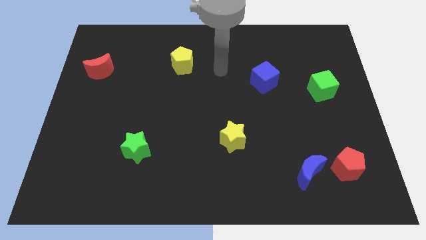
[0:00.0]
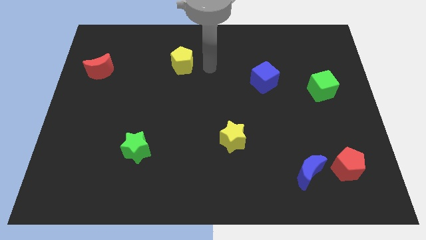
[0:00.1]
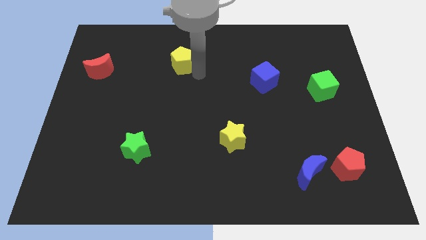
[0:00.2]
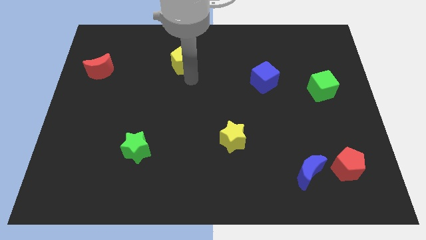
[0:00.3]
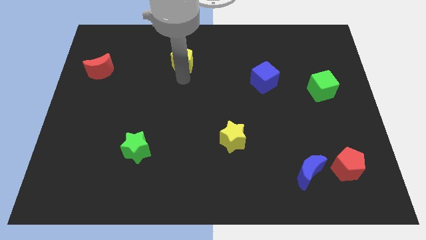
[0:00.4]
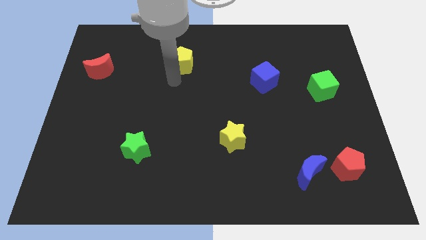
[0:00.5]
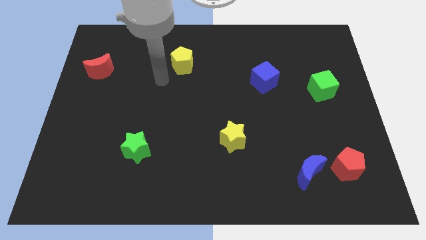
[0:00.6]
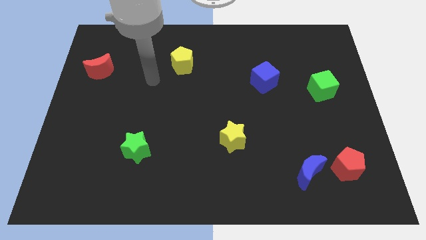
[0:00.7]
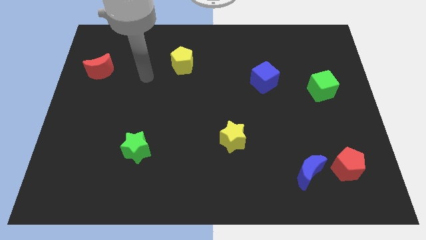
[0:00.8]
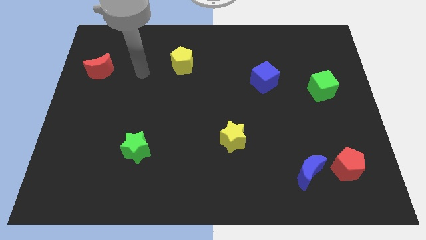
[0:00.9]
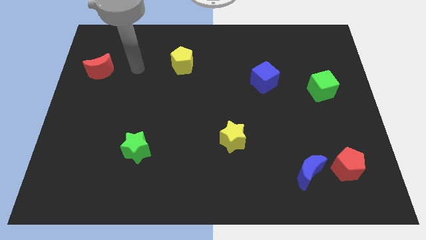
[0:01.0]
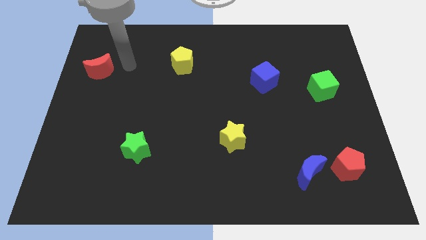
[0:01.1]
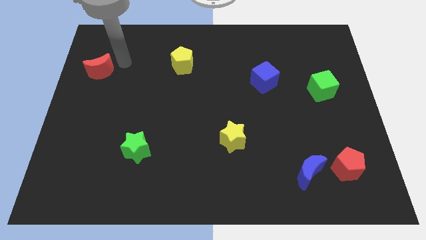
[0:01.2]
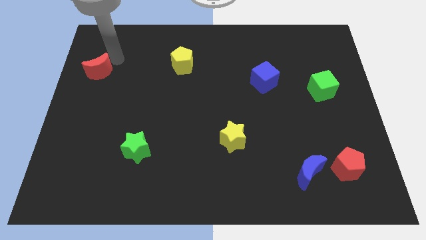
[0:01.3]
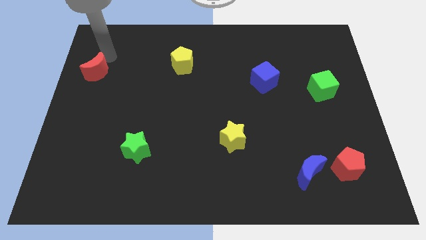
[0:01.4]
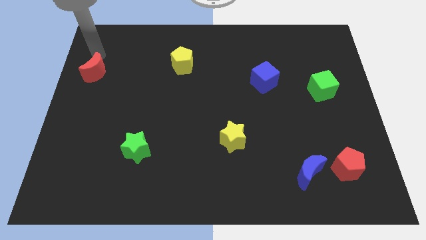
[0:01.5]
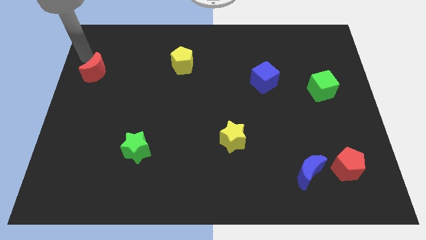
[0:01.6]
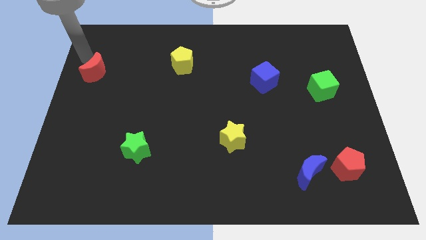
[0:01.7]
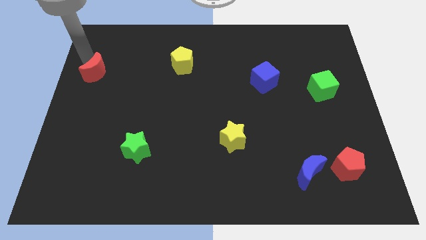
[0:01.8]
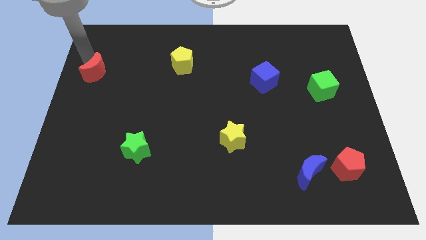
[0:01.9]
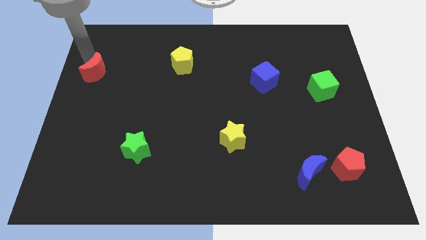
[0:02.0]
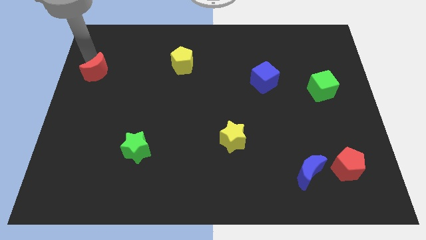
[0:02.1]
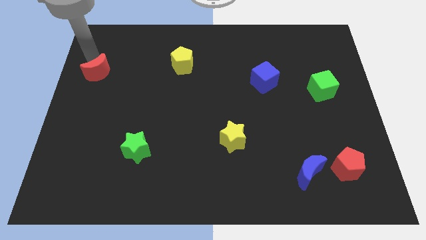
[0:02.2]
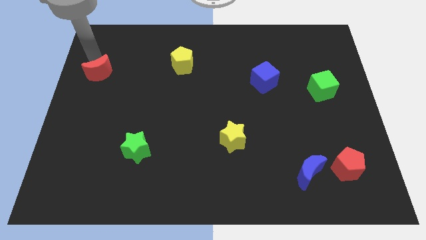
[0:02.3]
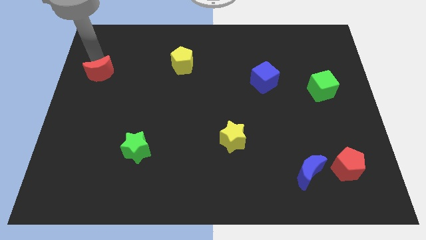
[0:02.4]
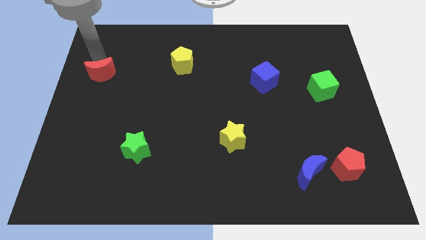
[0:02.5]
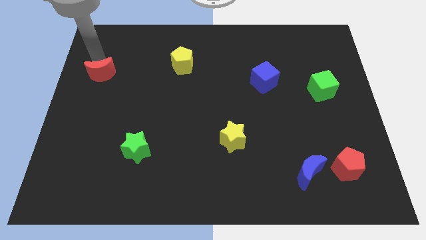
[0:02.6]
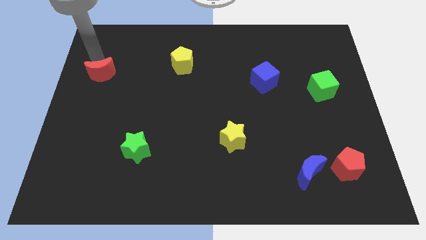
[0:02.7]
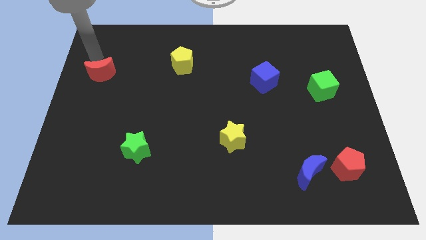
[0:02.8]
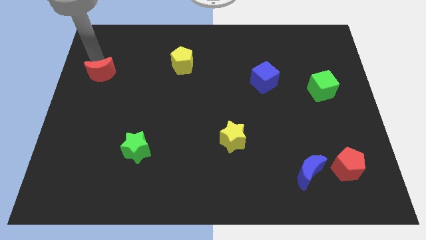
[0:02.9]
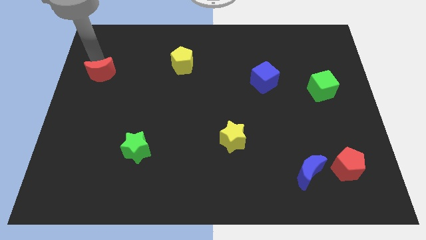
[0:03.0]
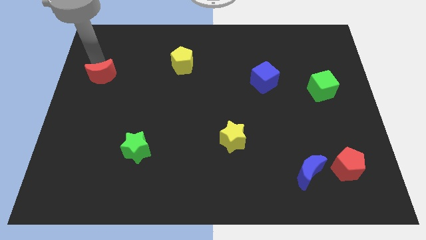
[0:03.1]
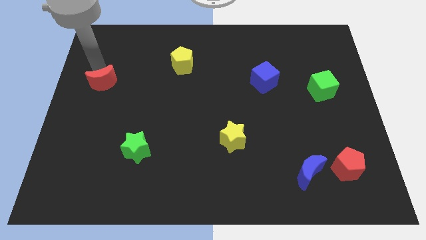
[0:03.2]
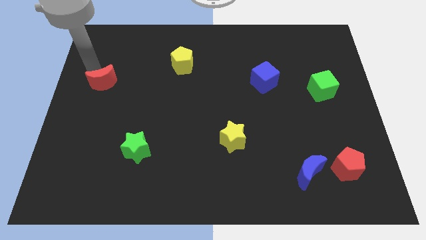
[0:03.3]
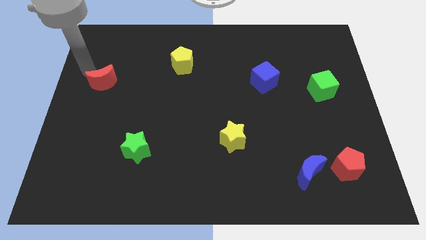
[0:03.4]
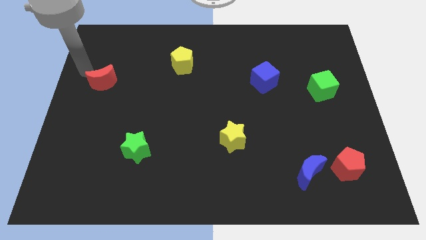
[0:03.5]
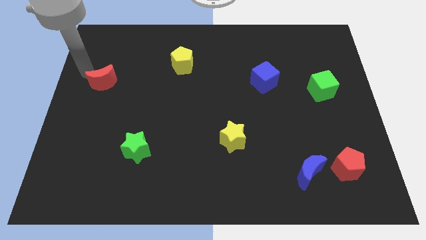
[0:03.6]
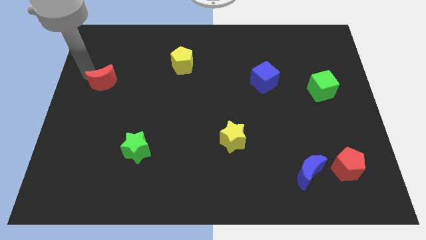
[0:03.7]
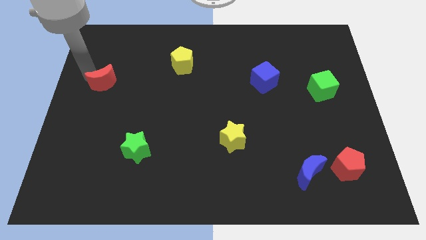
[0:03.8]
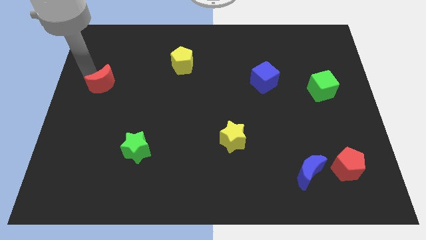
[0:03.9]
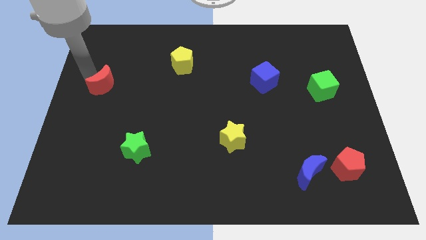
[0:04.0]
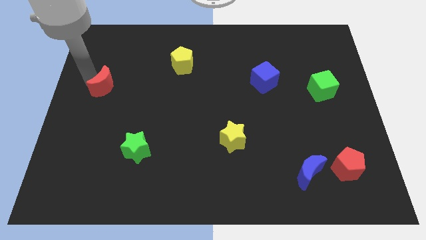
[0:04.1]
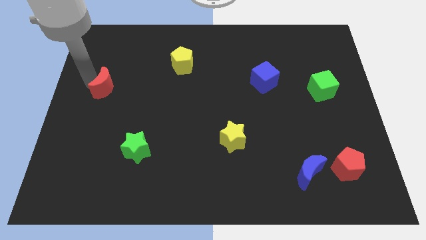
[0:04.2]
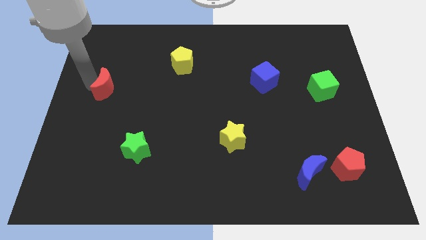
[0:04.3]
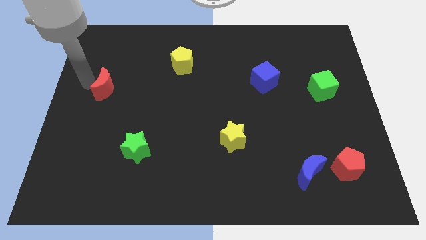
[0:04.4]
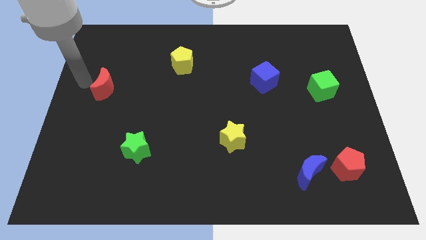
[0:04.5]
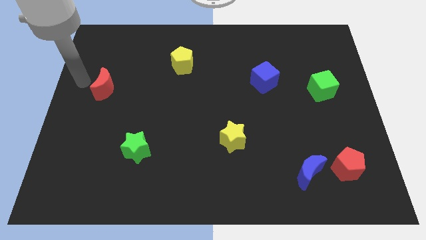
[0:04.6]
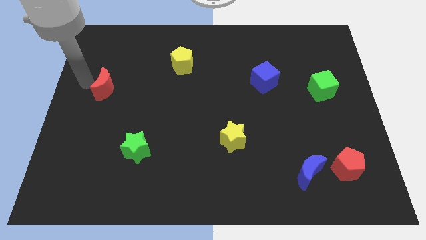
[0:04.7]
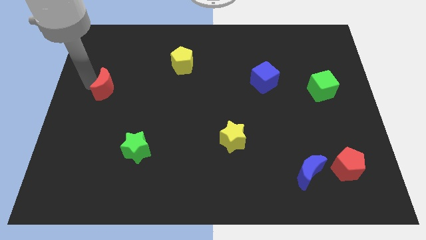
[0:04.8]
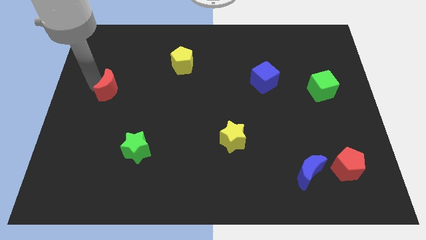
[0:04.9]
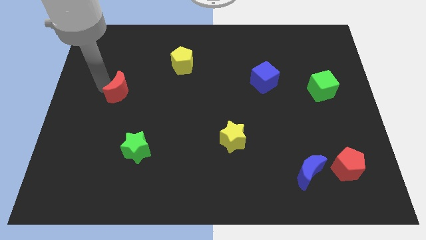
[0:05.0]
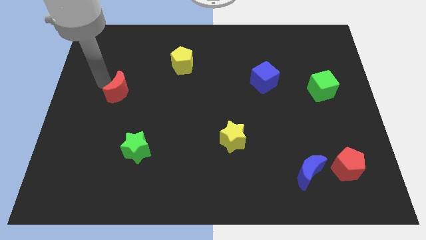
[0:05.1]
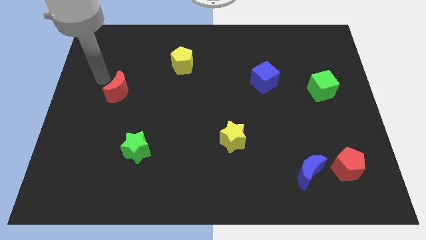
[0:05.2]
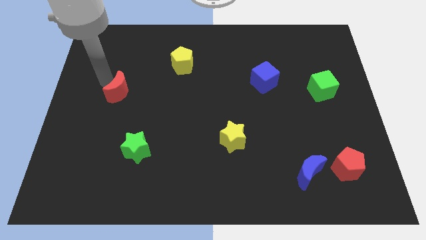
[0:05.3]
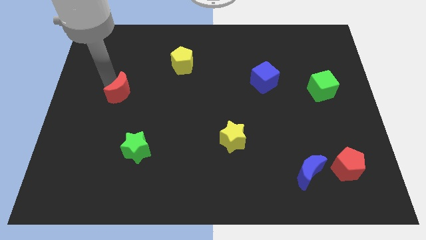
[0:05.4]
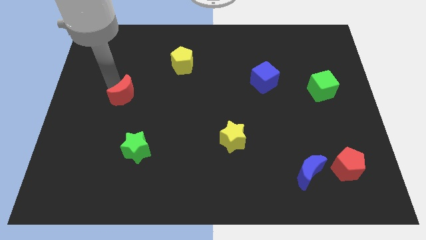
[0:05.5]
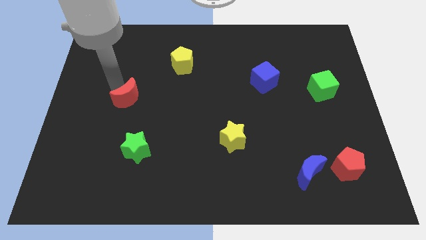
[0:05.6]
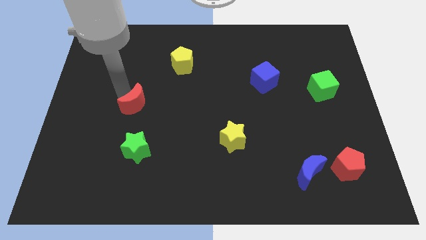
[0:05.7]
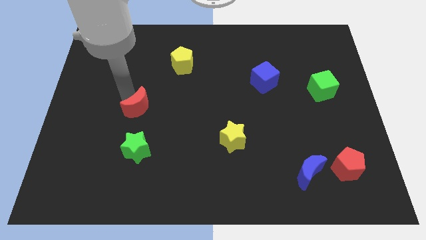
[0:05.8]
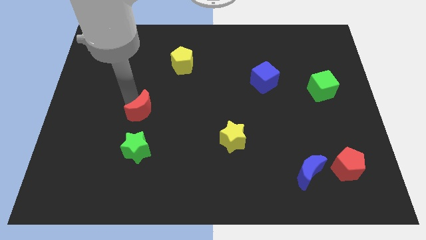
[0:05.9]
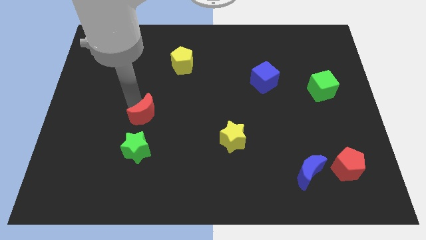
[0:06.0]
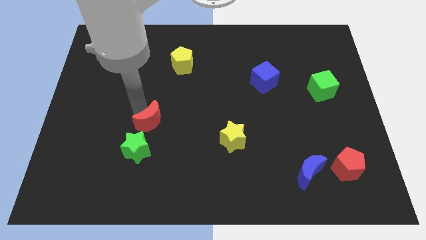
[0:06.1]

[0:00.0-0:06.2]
push the red moon down and right

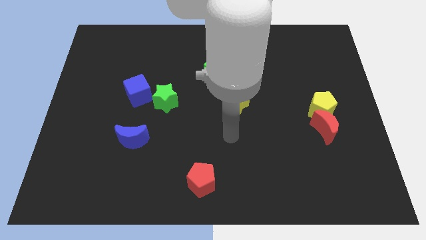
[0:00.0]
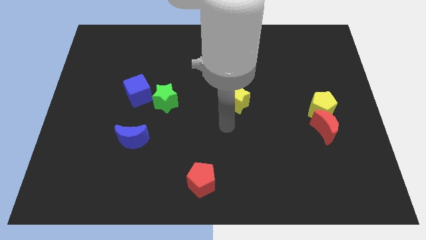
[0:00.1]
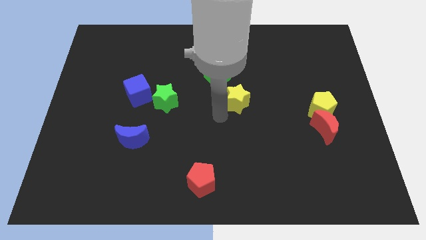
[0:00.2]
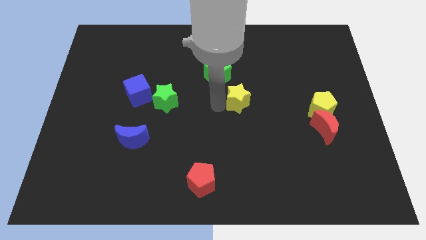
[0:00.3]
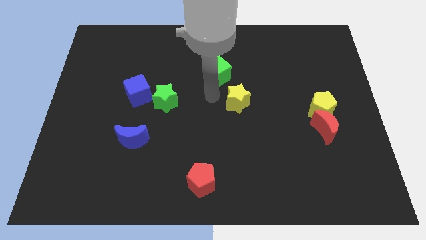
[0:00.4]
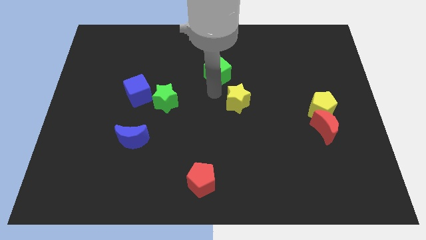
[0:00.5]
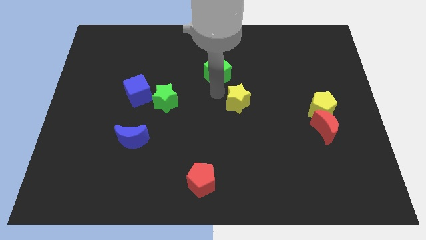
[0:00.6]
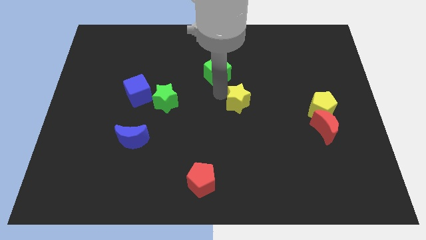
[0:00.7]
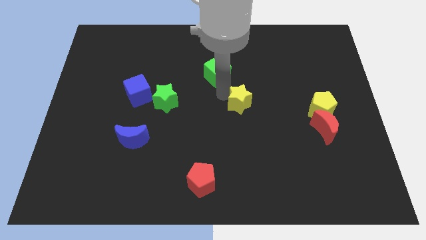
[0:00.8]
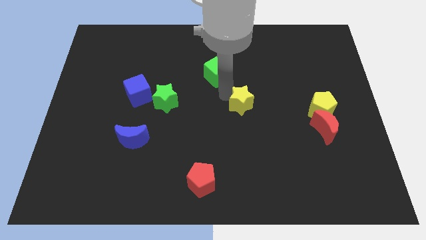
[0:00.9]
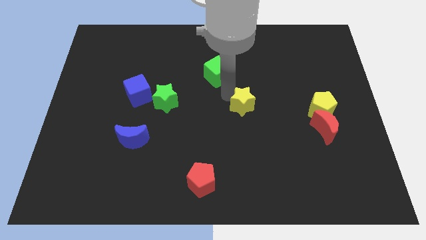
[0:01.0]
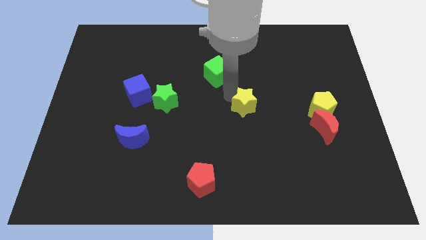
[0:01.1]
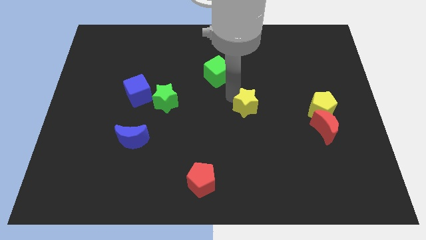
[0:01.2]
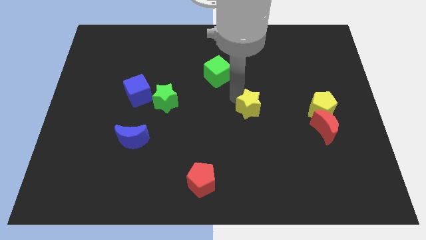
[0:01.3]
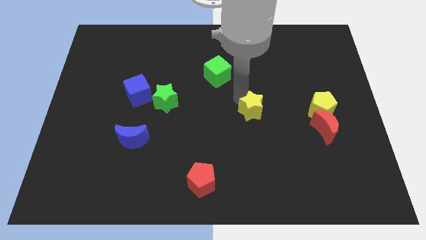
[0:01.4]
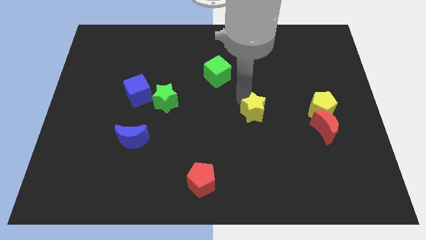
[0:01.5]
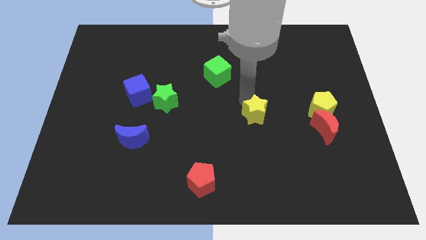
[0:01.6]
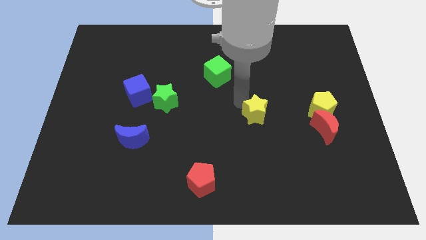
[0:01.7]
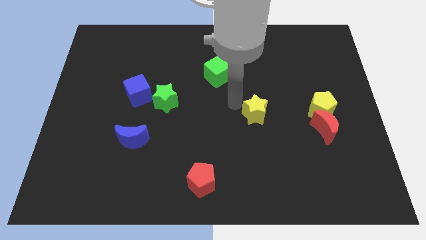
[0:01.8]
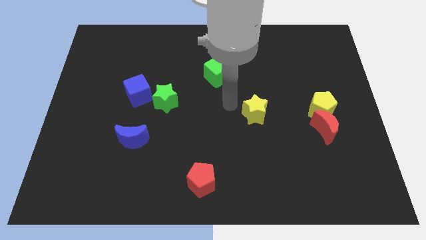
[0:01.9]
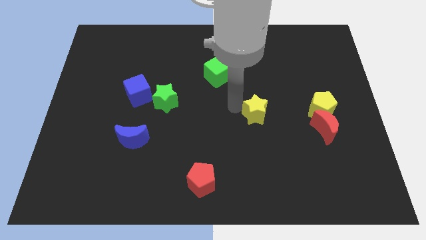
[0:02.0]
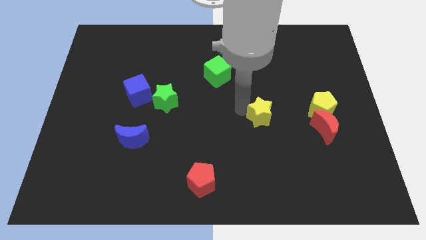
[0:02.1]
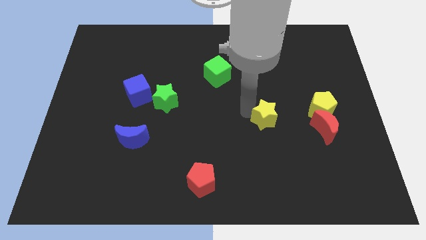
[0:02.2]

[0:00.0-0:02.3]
slightly slide the yellow star downwards and to the right diagonally
